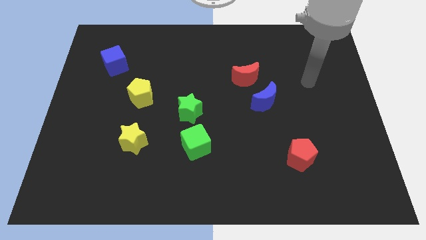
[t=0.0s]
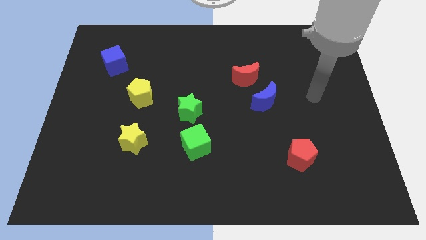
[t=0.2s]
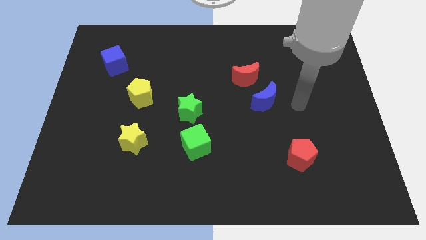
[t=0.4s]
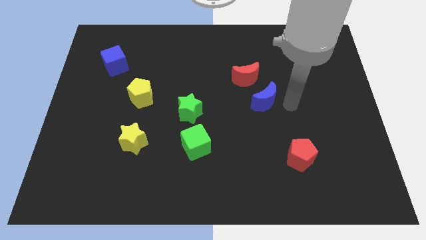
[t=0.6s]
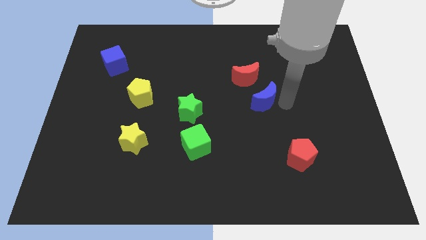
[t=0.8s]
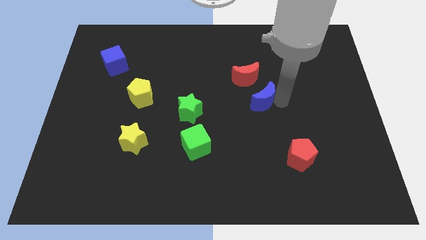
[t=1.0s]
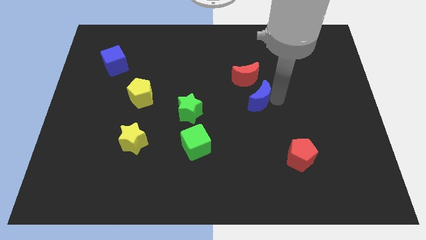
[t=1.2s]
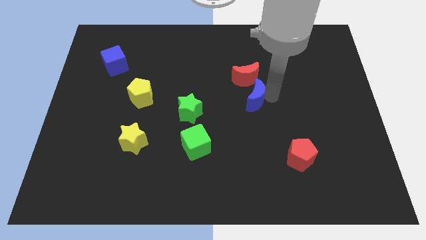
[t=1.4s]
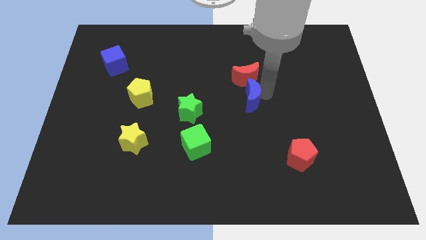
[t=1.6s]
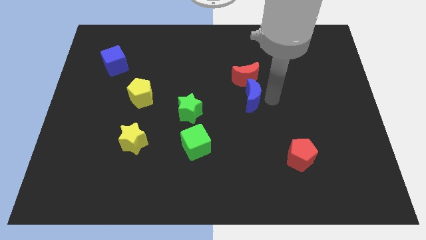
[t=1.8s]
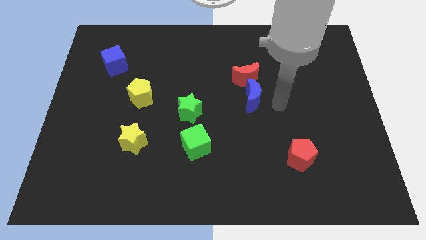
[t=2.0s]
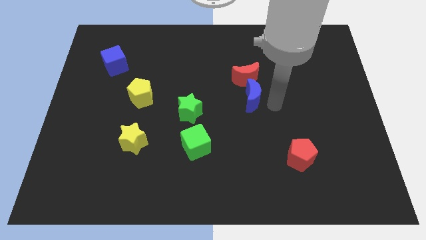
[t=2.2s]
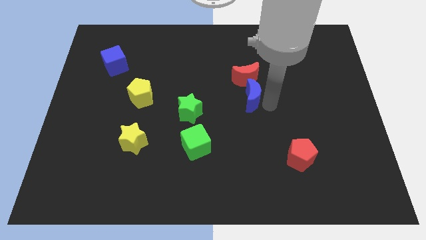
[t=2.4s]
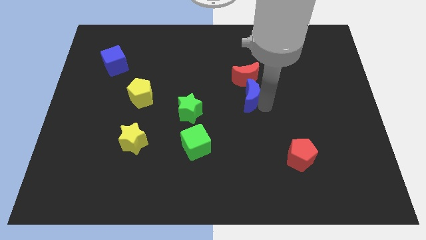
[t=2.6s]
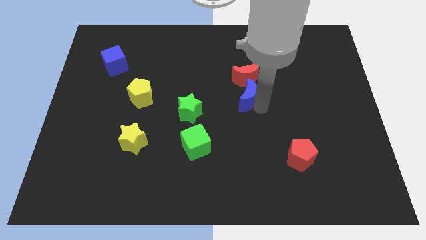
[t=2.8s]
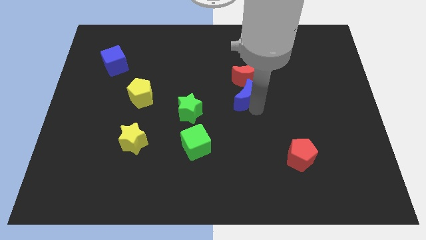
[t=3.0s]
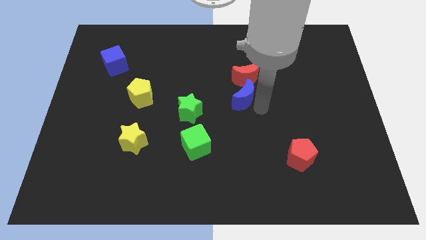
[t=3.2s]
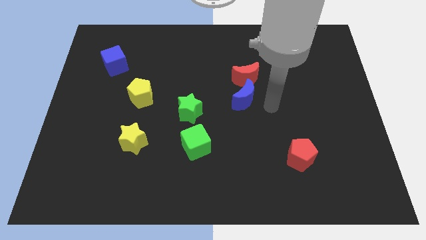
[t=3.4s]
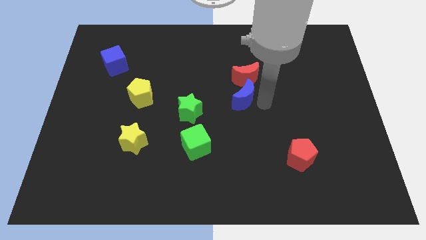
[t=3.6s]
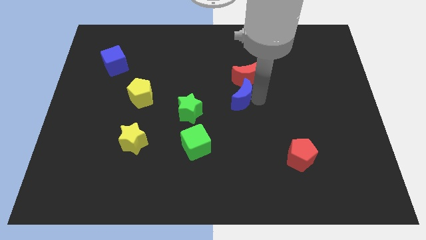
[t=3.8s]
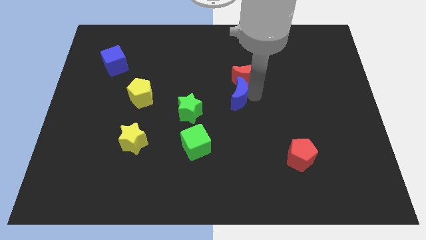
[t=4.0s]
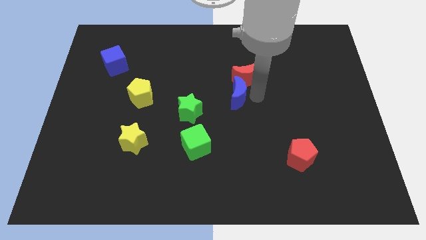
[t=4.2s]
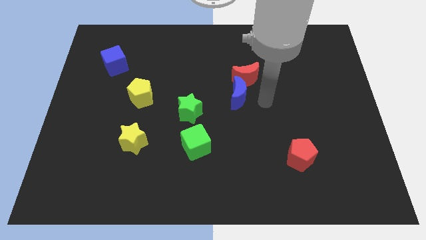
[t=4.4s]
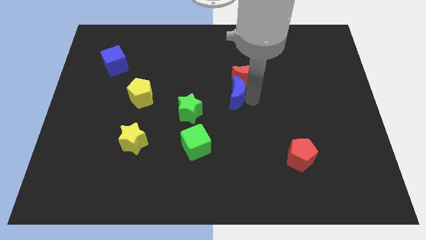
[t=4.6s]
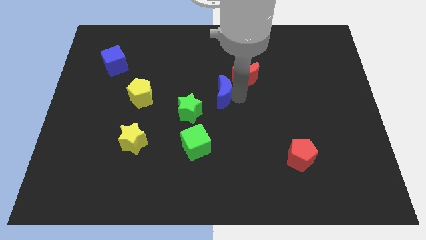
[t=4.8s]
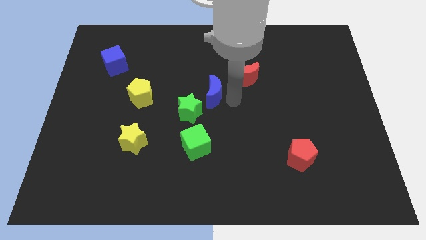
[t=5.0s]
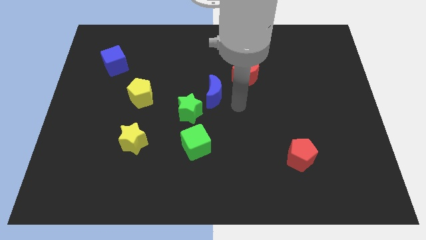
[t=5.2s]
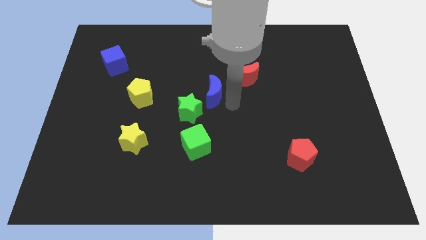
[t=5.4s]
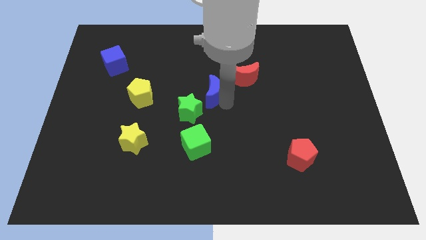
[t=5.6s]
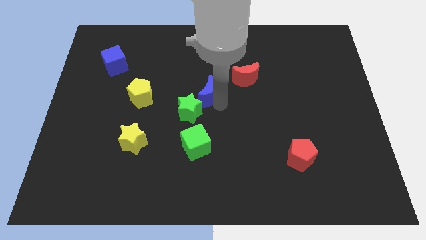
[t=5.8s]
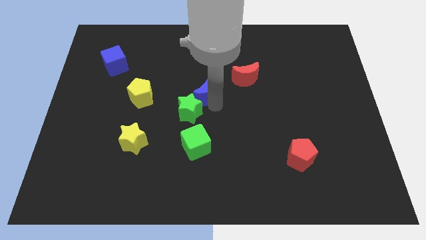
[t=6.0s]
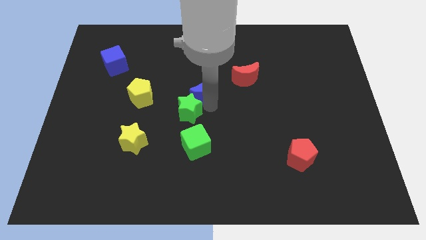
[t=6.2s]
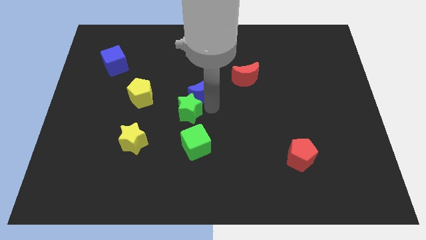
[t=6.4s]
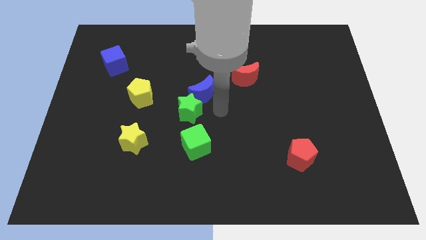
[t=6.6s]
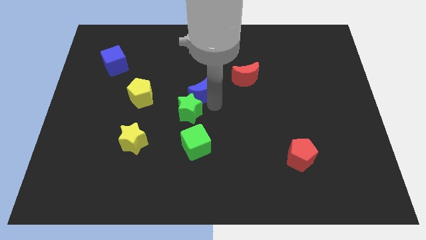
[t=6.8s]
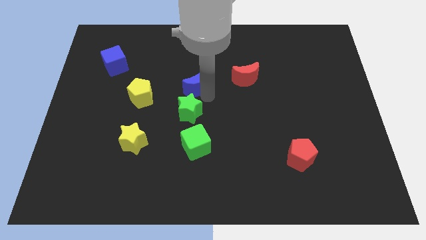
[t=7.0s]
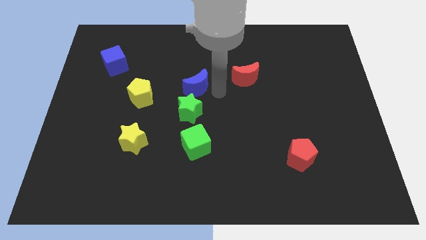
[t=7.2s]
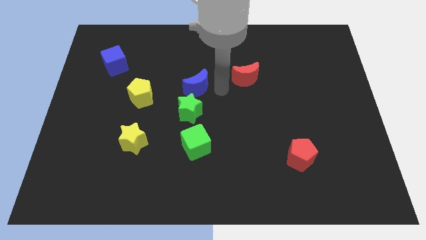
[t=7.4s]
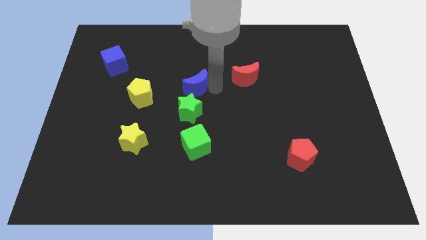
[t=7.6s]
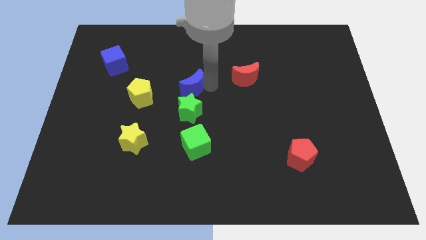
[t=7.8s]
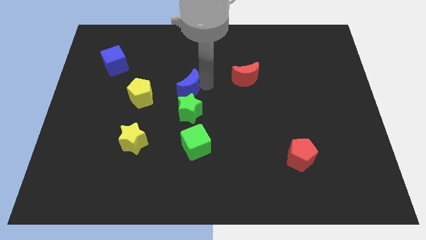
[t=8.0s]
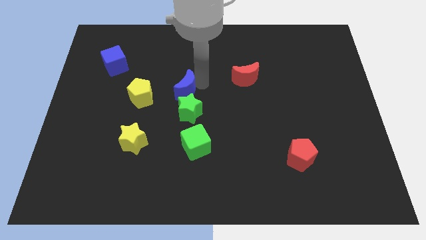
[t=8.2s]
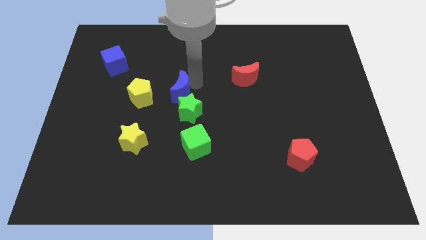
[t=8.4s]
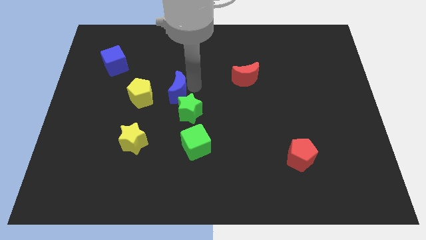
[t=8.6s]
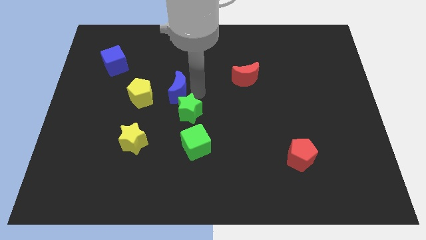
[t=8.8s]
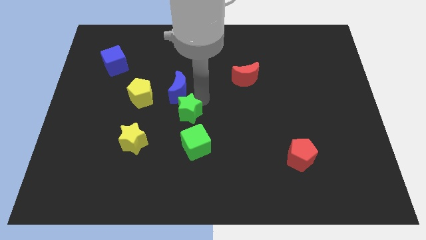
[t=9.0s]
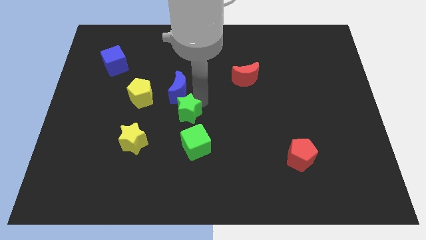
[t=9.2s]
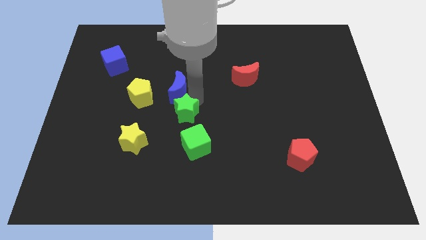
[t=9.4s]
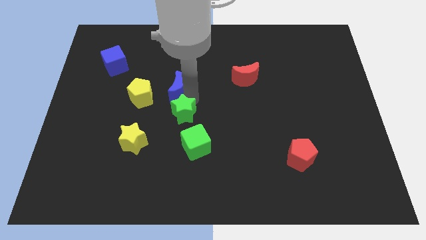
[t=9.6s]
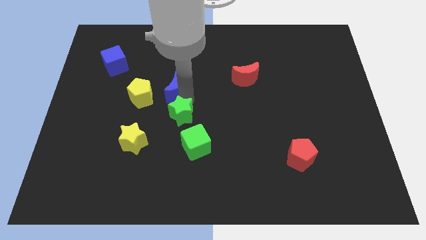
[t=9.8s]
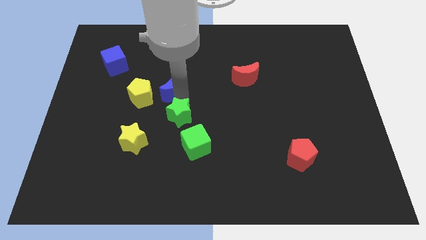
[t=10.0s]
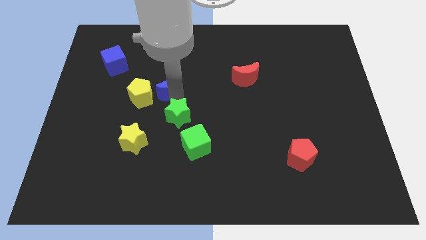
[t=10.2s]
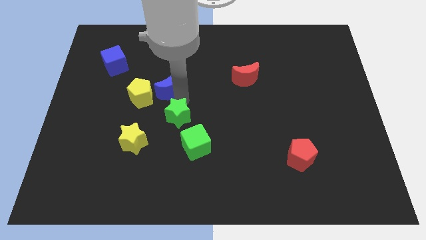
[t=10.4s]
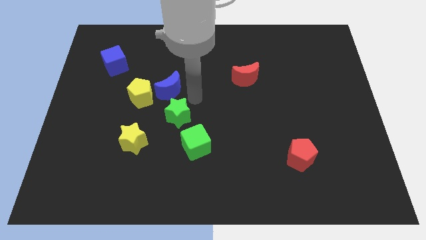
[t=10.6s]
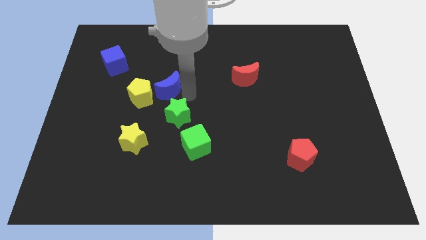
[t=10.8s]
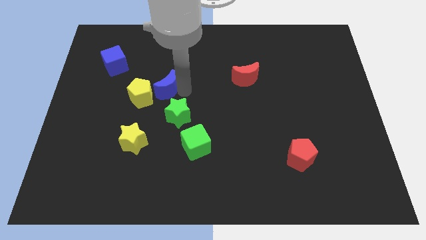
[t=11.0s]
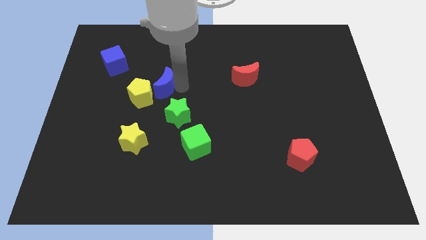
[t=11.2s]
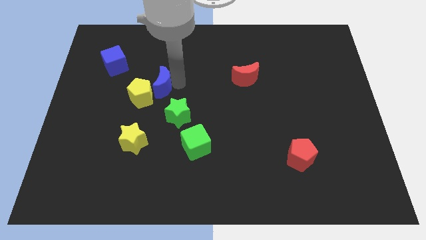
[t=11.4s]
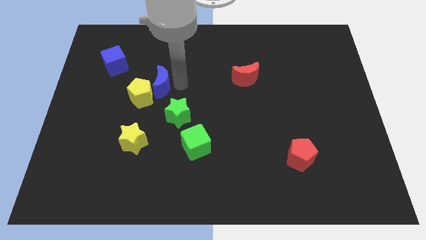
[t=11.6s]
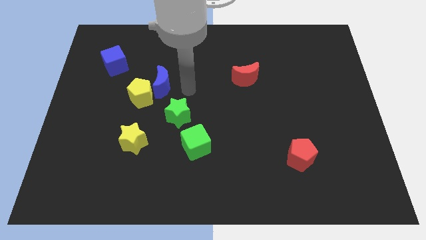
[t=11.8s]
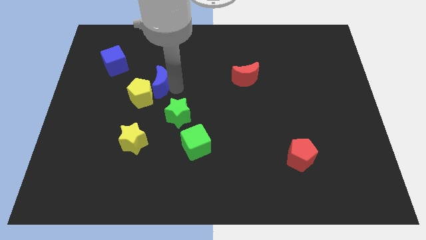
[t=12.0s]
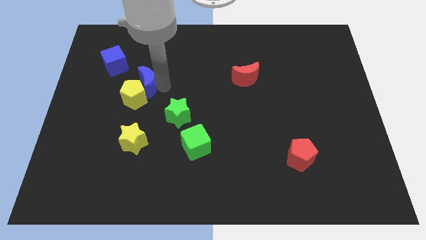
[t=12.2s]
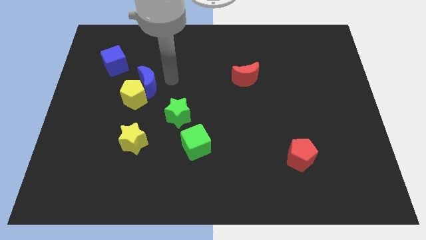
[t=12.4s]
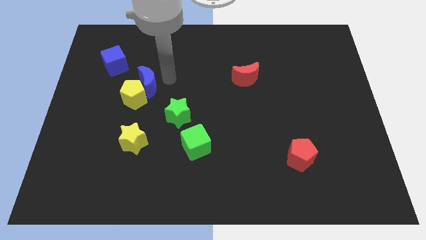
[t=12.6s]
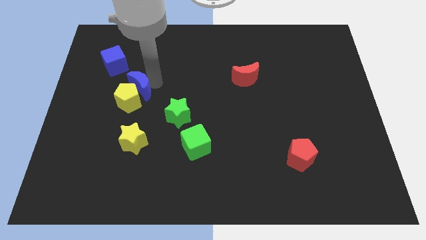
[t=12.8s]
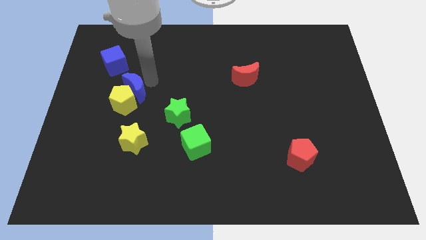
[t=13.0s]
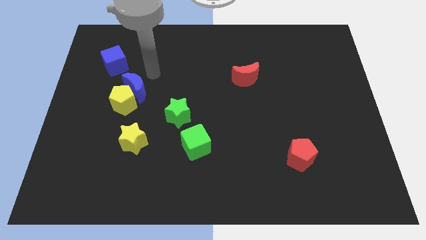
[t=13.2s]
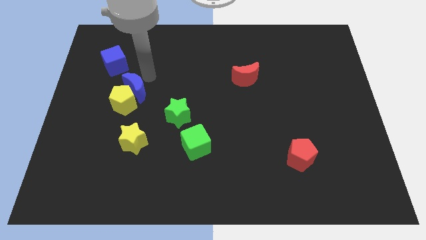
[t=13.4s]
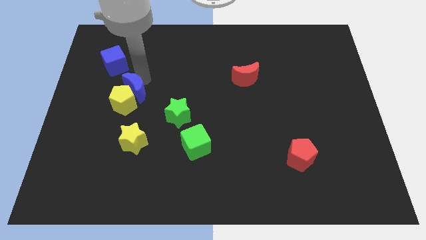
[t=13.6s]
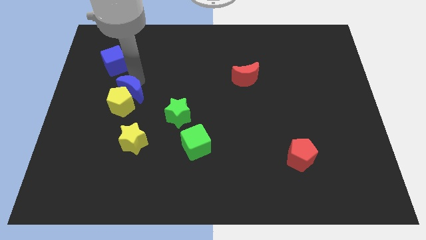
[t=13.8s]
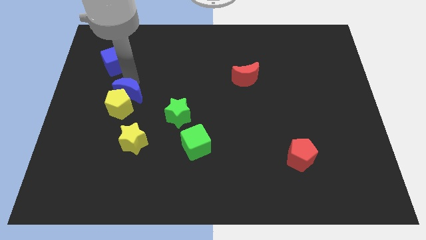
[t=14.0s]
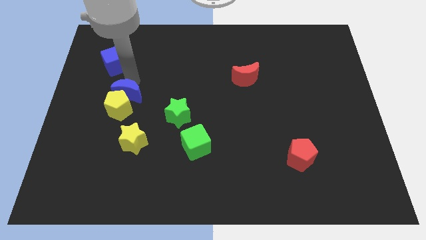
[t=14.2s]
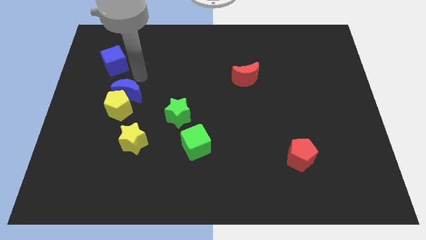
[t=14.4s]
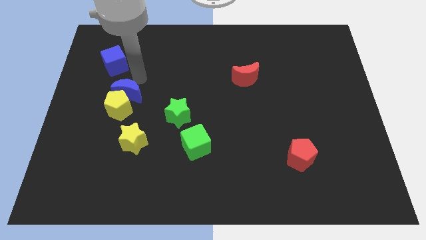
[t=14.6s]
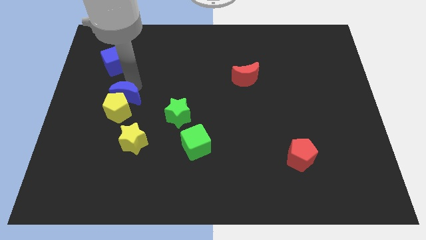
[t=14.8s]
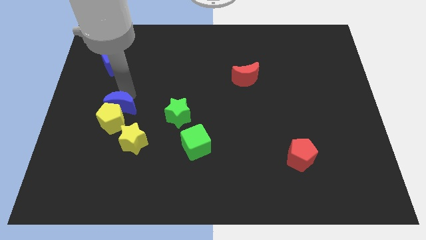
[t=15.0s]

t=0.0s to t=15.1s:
put the blue moon diagonally up and to the left of the yellow star
